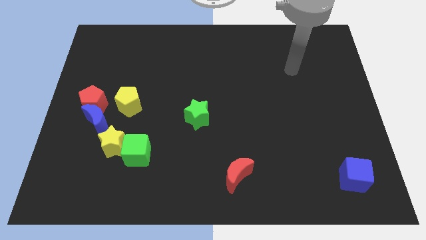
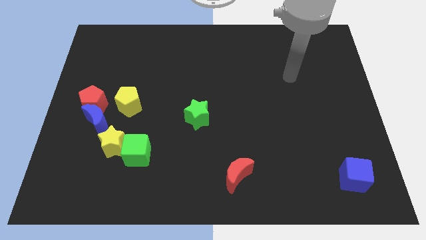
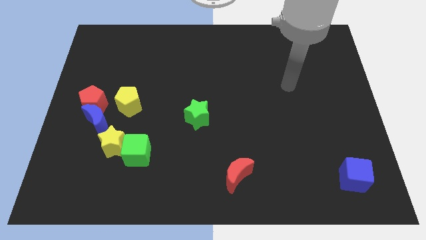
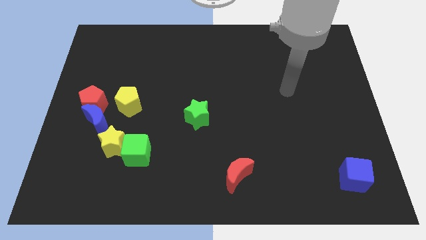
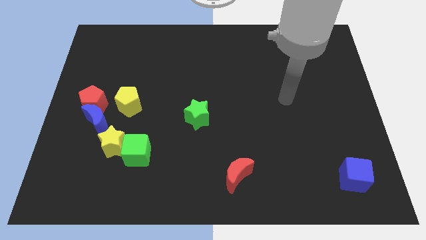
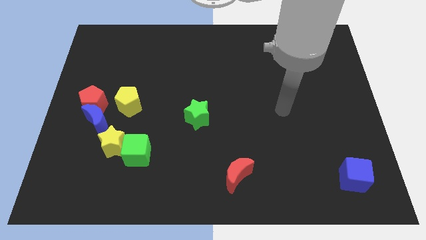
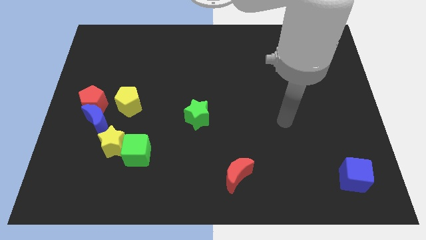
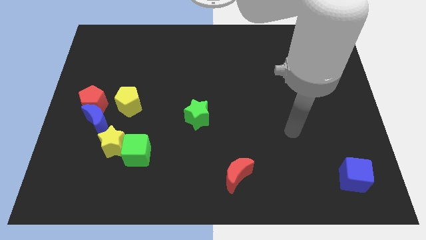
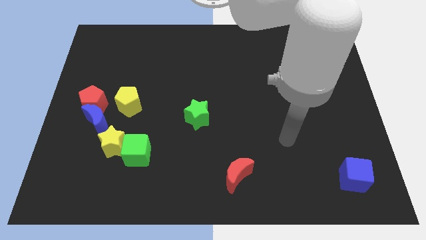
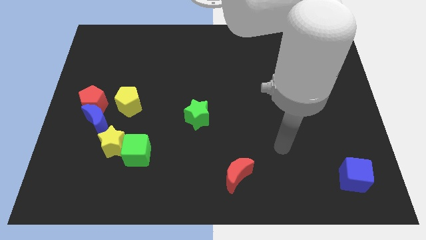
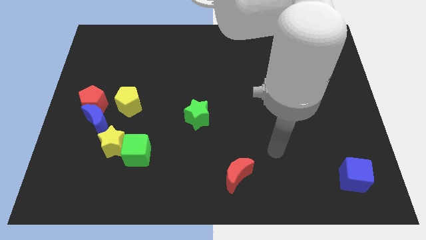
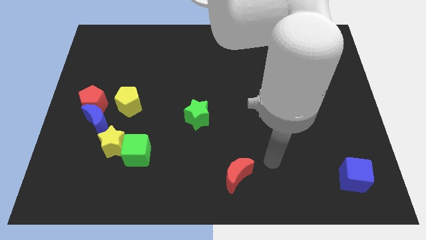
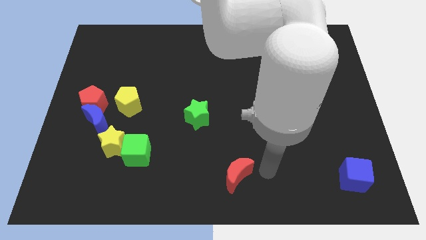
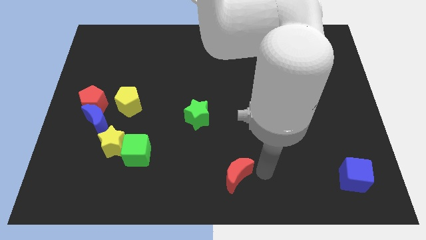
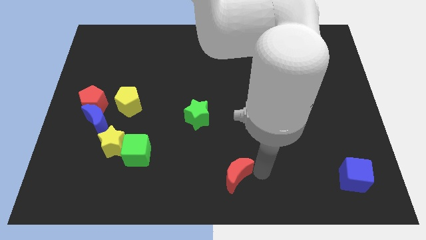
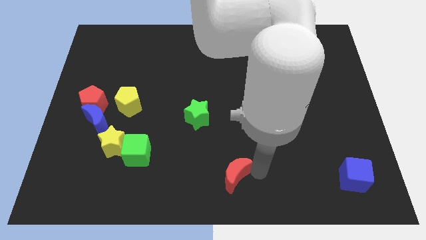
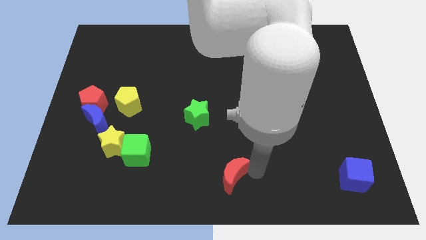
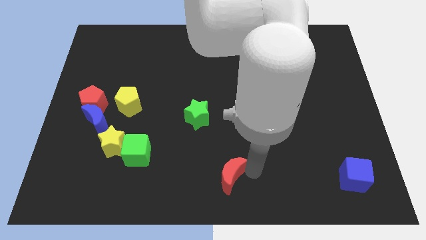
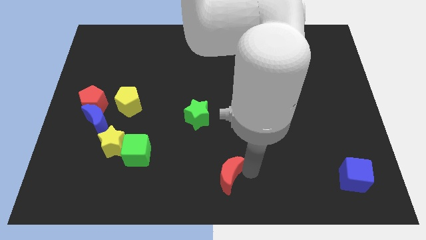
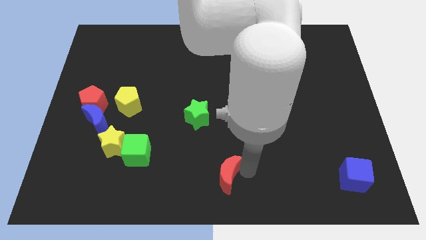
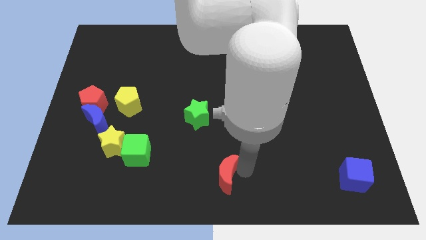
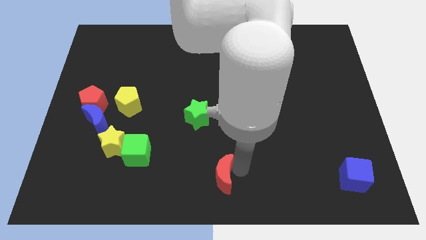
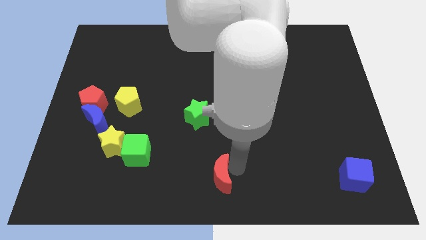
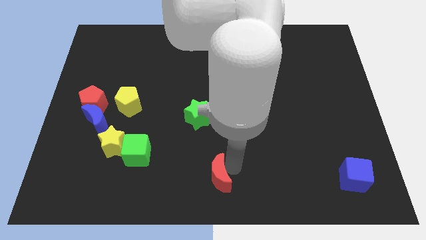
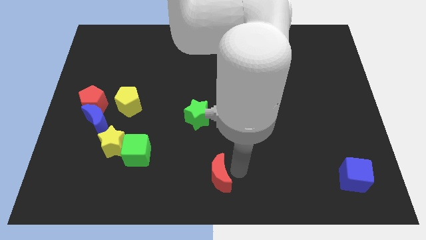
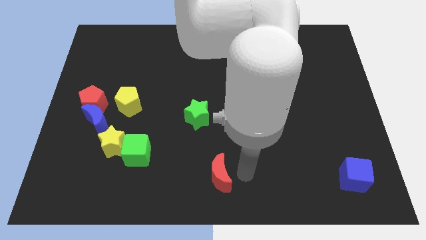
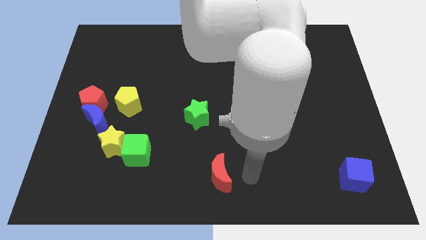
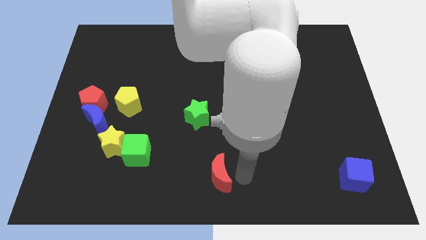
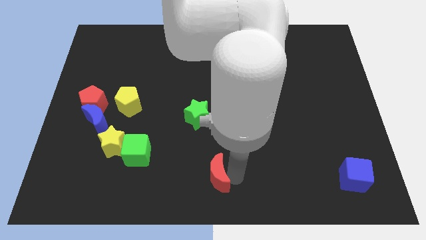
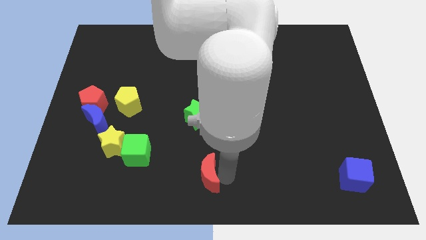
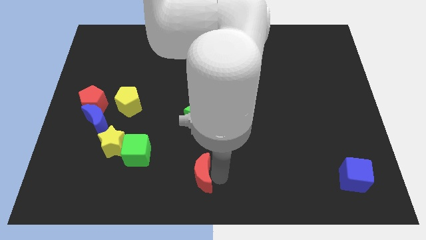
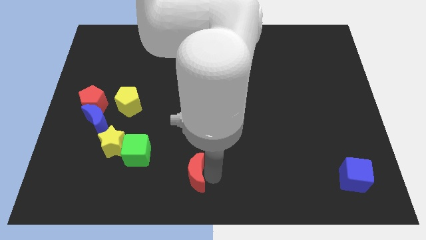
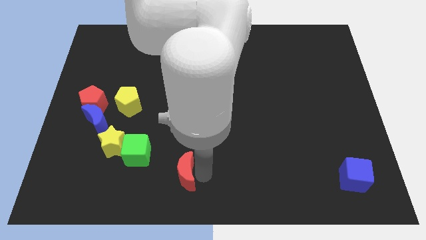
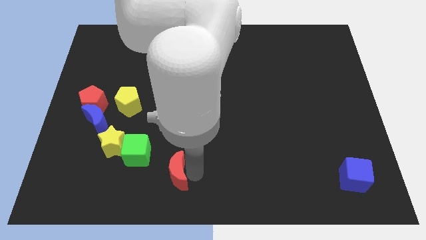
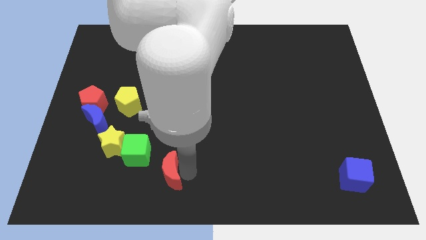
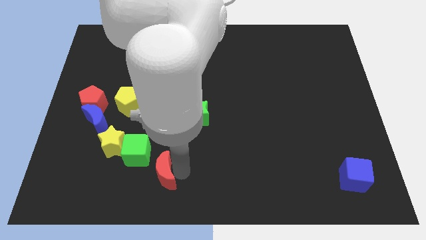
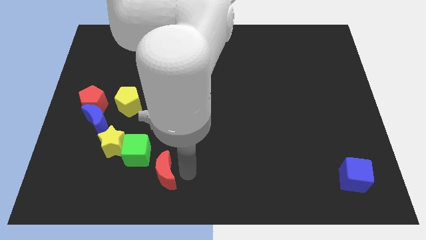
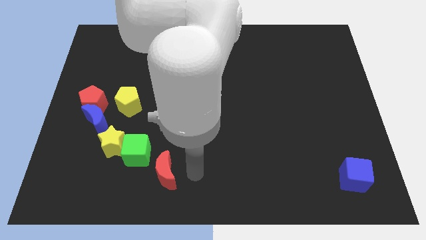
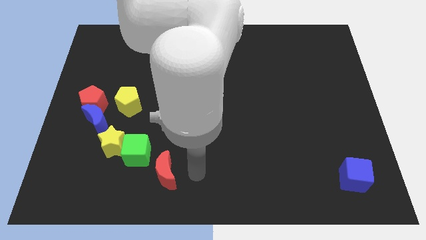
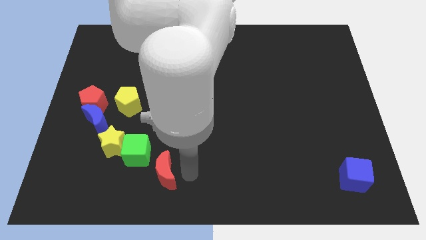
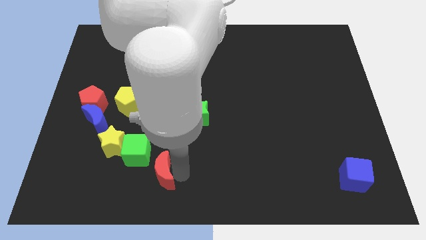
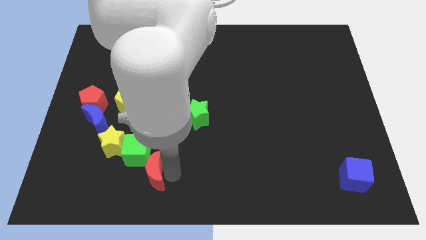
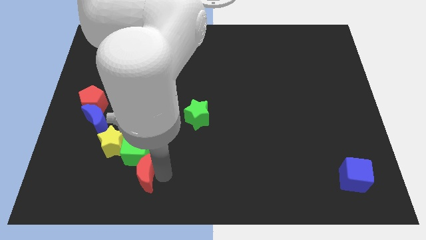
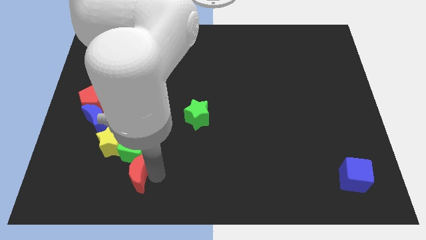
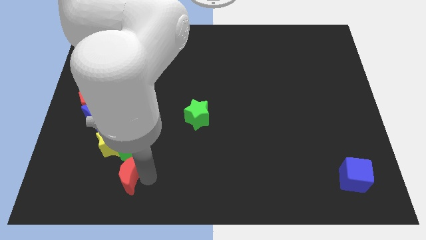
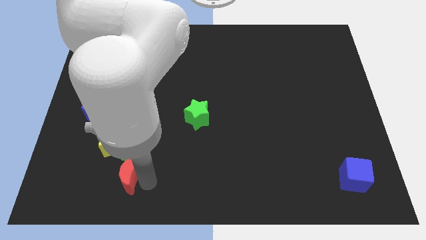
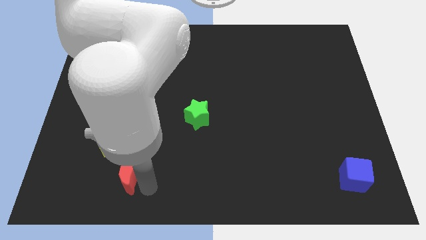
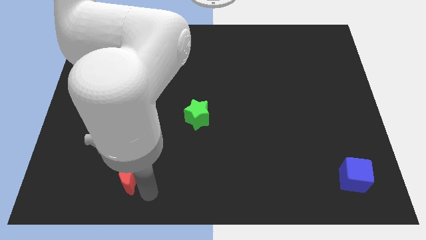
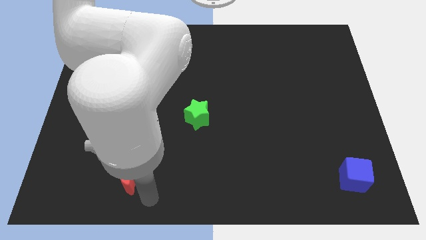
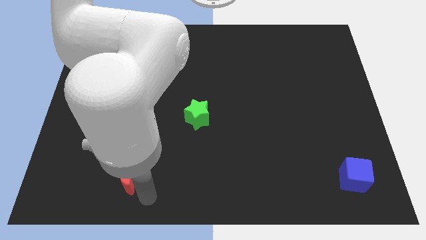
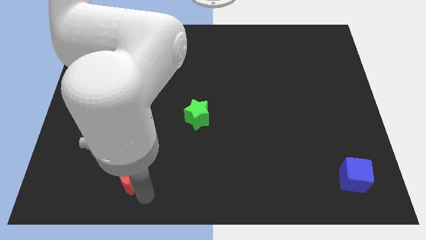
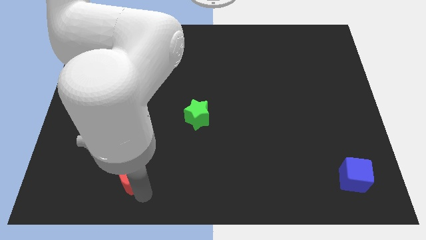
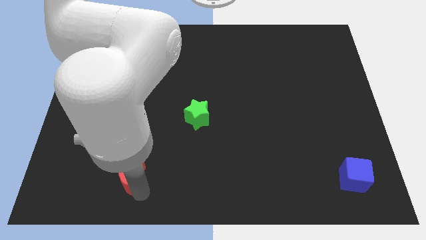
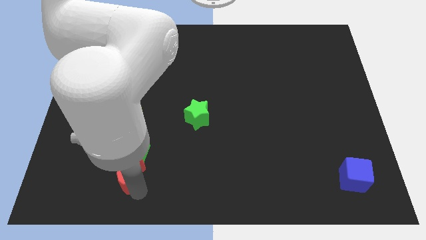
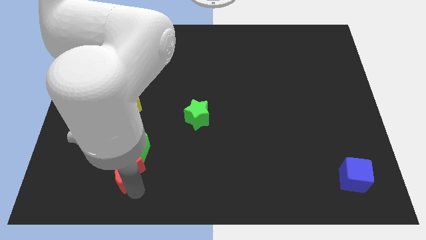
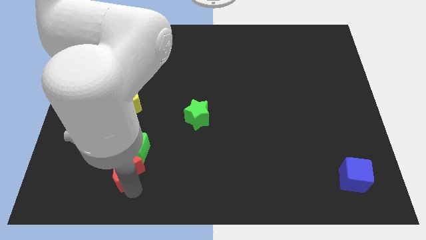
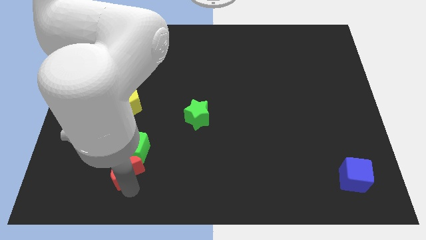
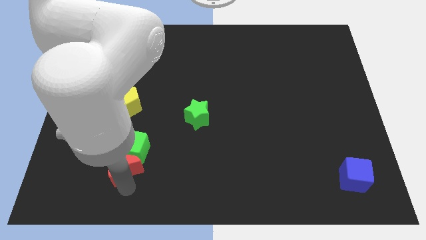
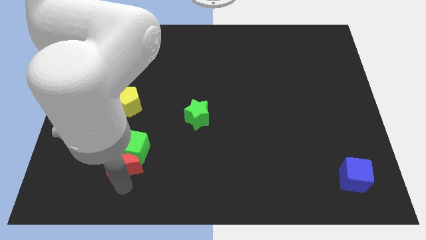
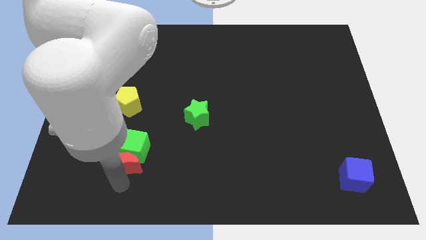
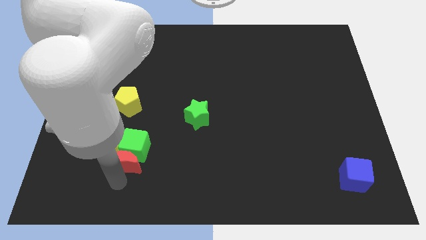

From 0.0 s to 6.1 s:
slide the red moon to the bottom of the yellow pentagon

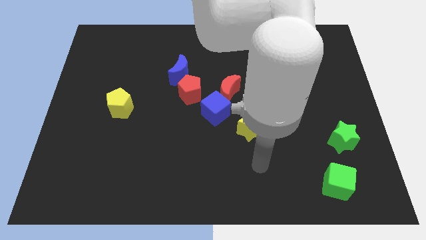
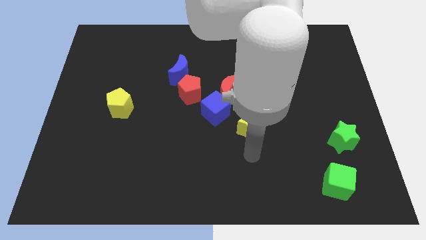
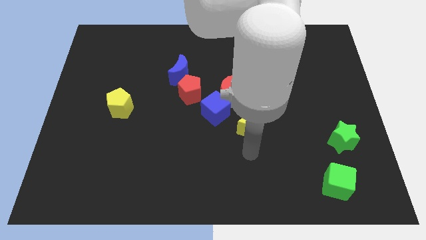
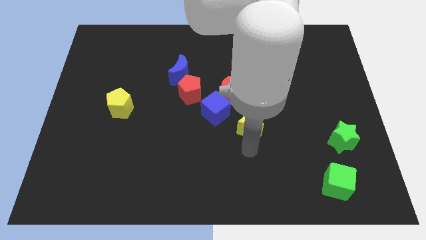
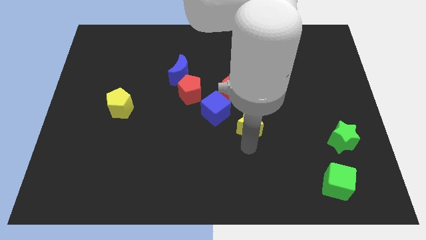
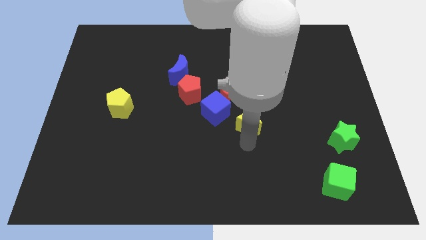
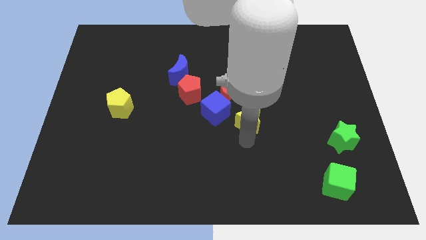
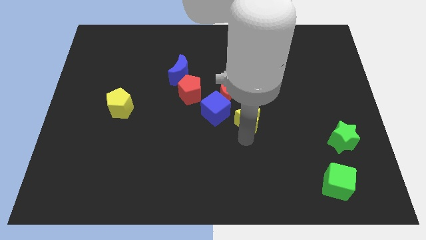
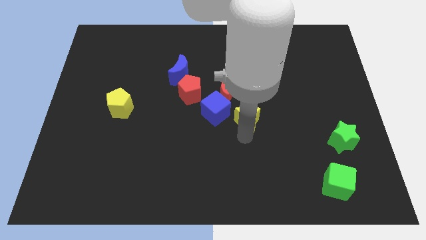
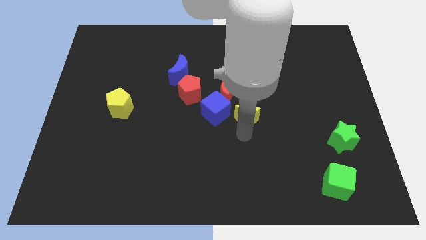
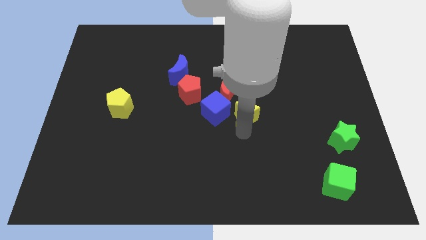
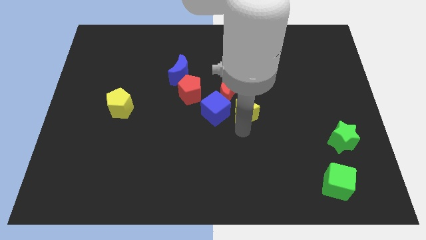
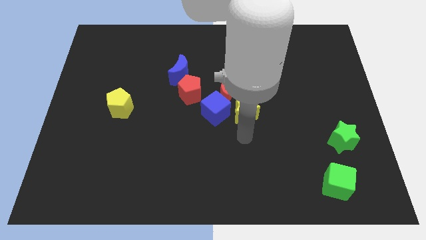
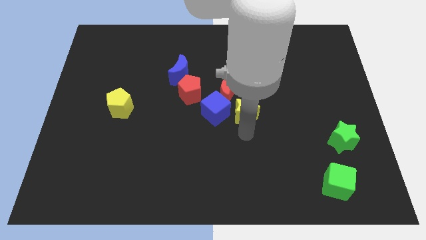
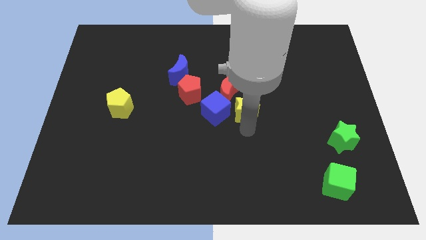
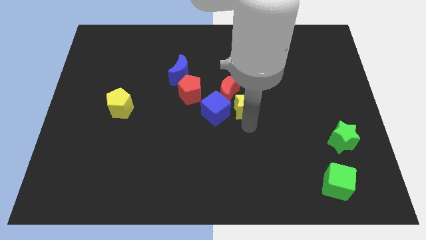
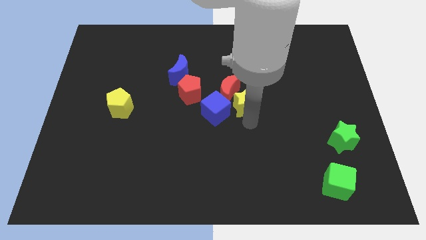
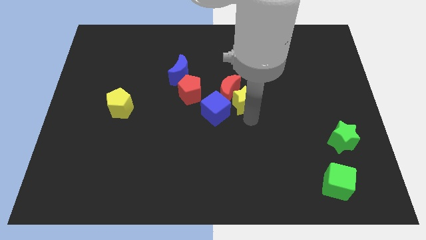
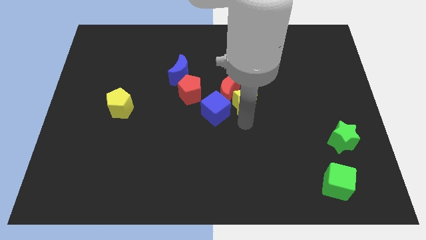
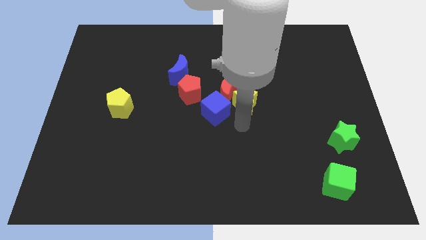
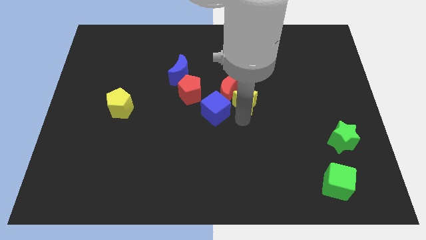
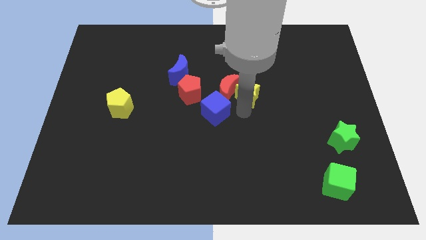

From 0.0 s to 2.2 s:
slide the yellow star to the top right of the red moon
